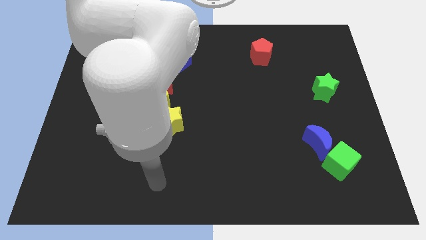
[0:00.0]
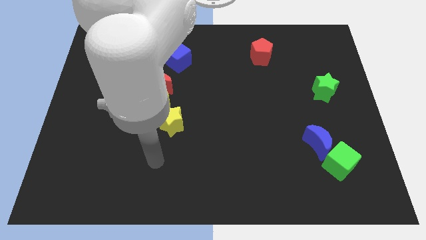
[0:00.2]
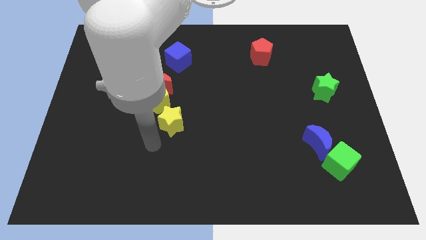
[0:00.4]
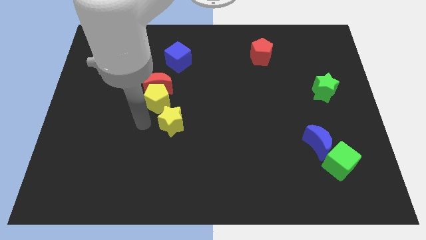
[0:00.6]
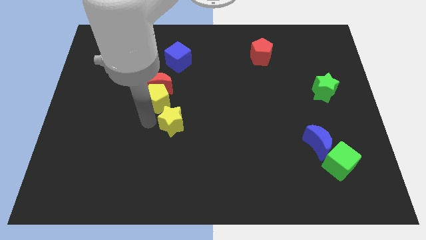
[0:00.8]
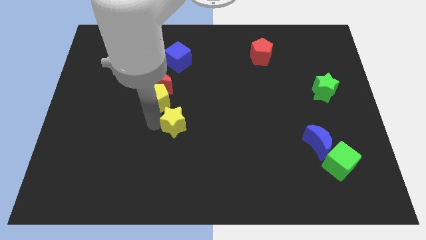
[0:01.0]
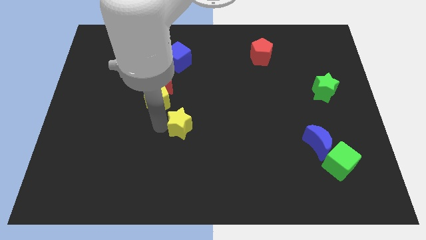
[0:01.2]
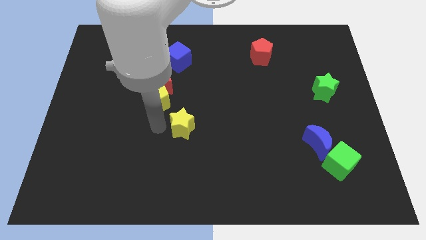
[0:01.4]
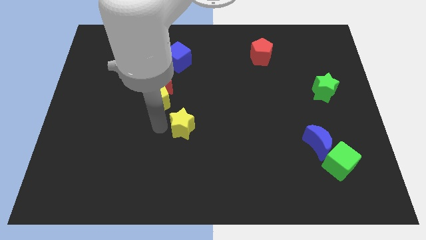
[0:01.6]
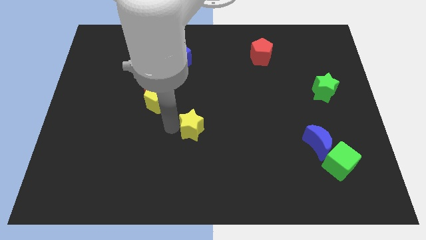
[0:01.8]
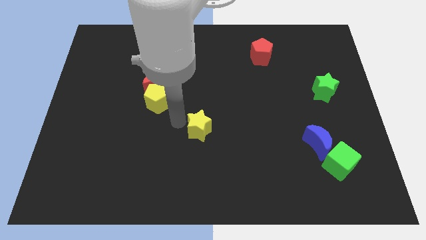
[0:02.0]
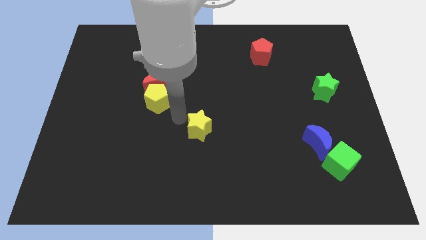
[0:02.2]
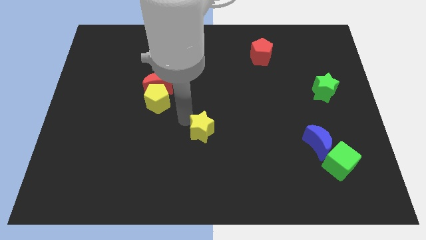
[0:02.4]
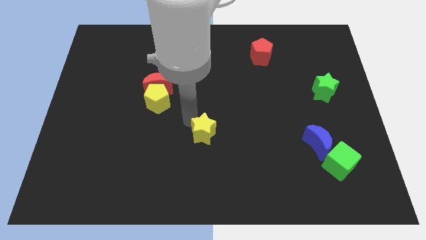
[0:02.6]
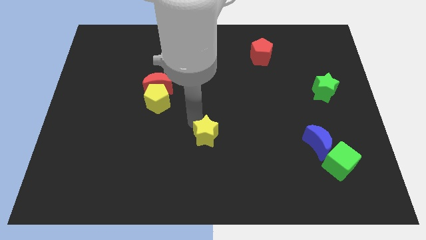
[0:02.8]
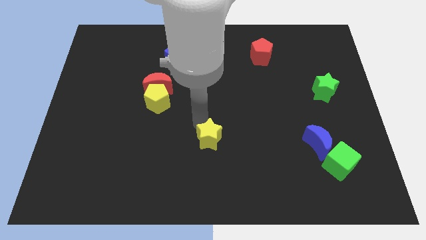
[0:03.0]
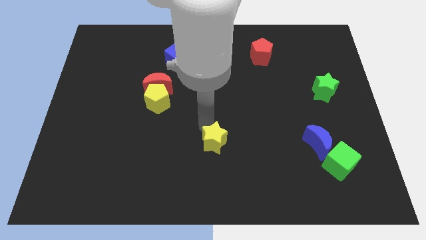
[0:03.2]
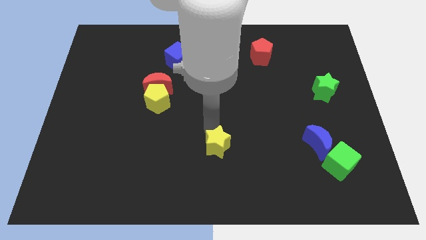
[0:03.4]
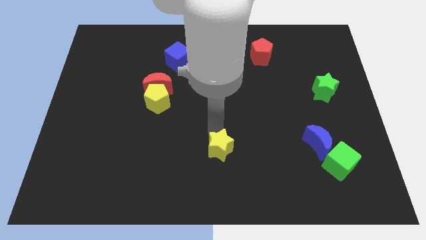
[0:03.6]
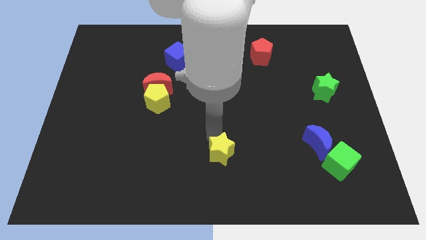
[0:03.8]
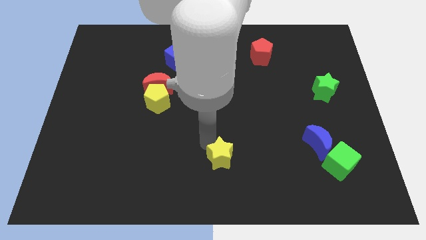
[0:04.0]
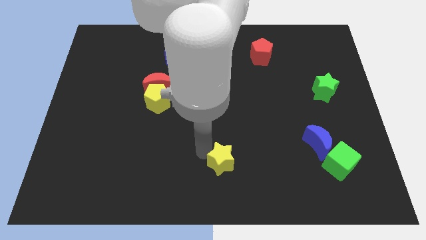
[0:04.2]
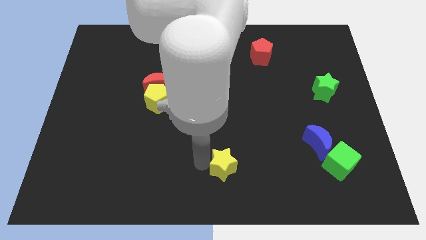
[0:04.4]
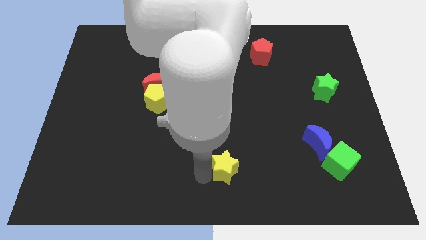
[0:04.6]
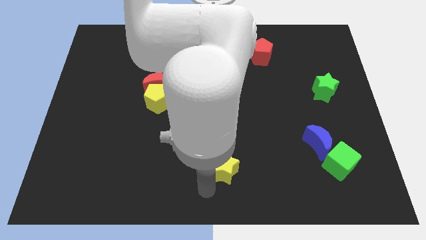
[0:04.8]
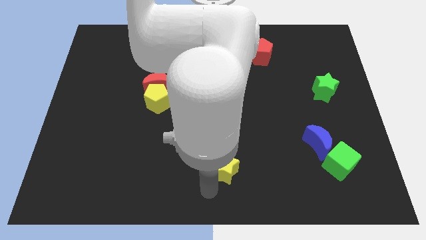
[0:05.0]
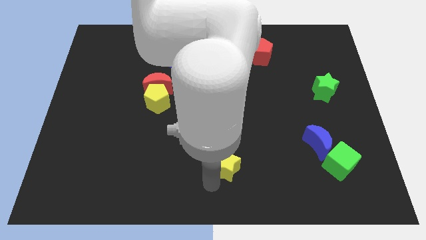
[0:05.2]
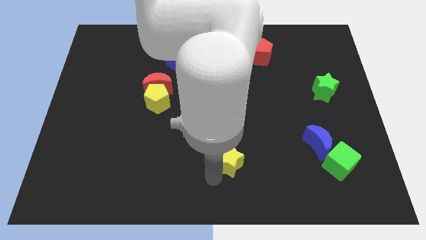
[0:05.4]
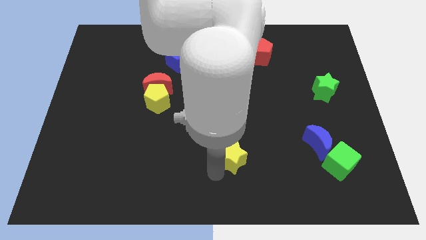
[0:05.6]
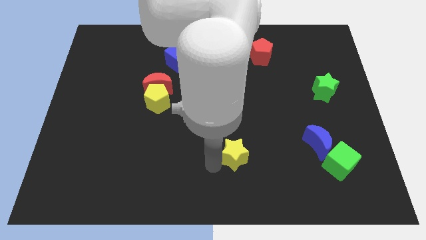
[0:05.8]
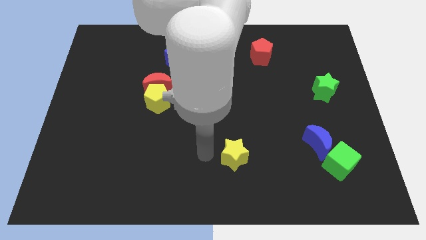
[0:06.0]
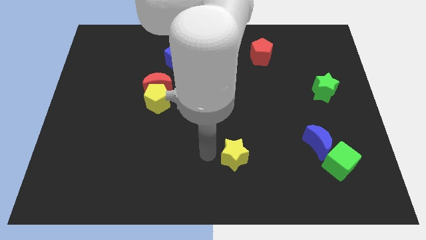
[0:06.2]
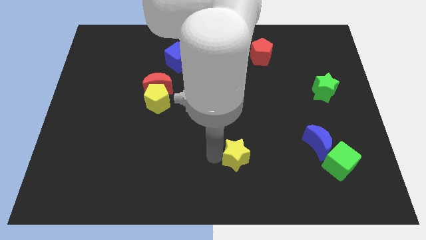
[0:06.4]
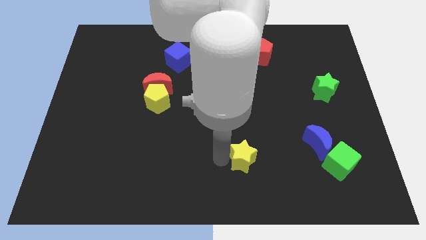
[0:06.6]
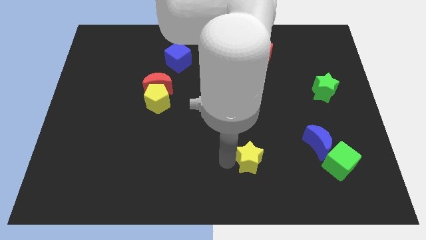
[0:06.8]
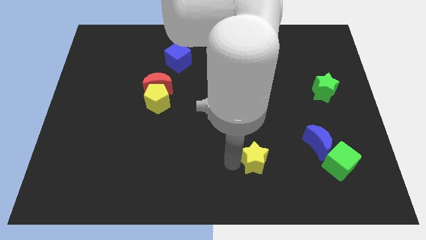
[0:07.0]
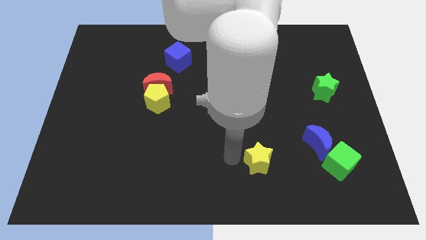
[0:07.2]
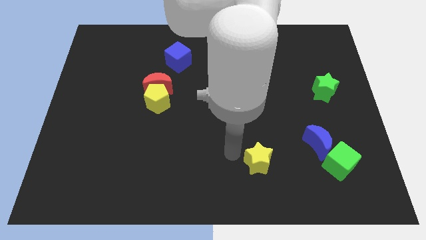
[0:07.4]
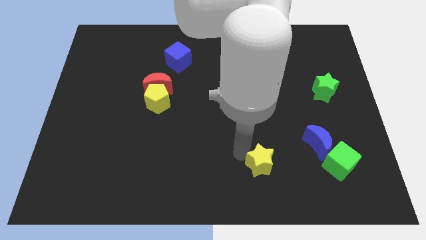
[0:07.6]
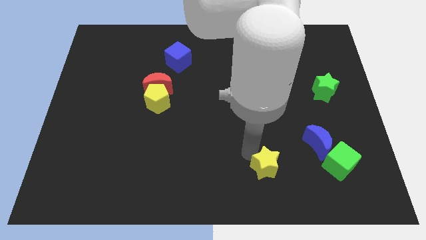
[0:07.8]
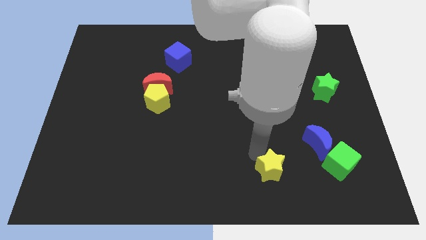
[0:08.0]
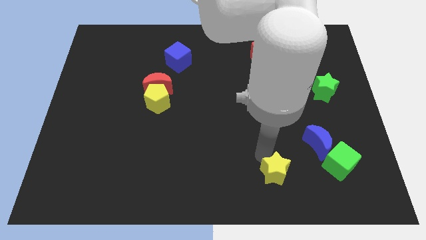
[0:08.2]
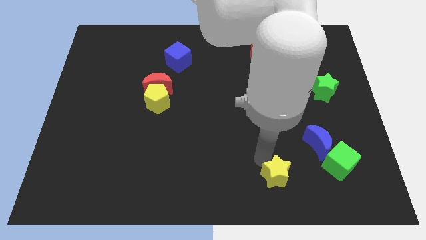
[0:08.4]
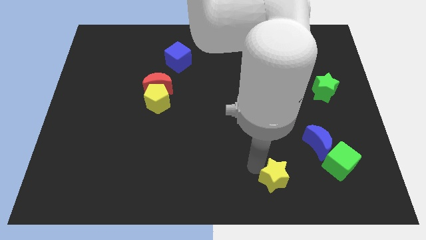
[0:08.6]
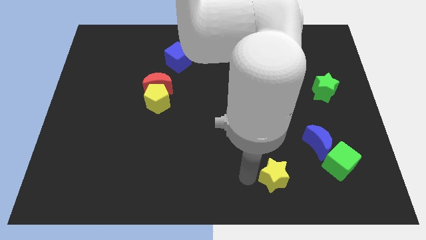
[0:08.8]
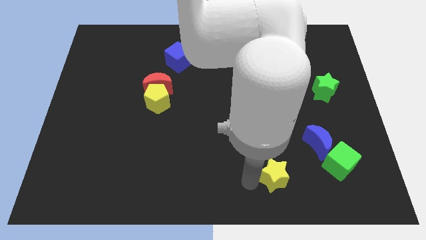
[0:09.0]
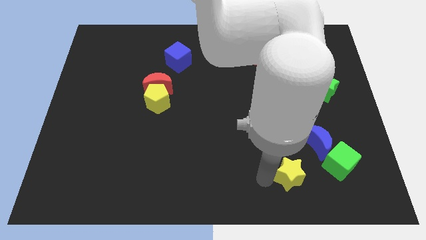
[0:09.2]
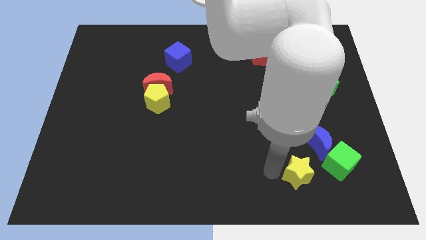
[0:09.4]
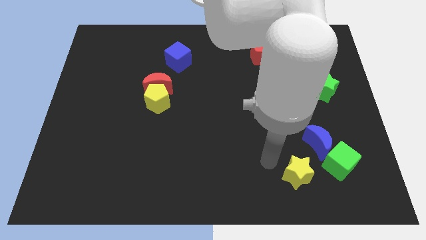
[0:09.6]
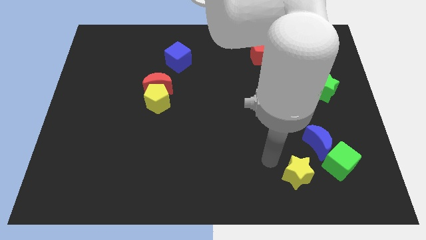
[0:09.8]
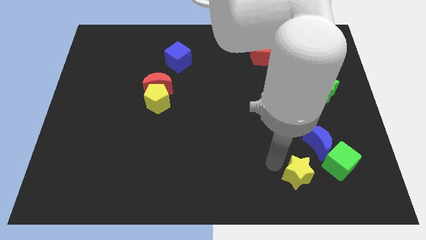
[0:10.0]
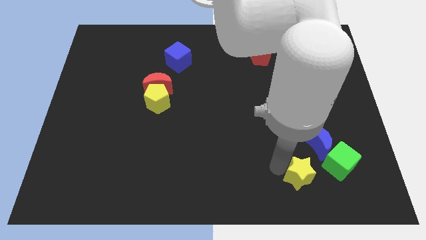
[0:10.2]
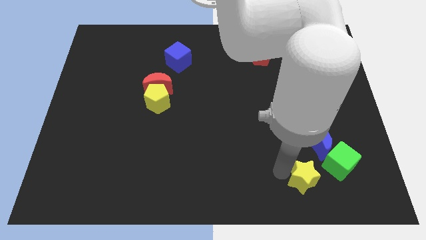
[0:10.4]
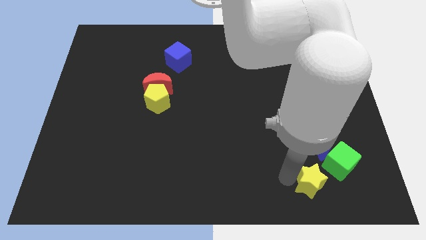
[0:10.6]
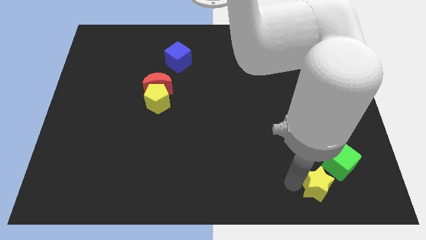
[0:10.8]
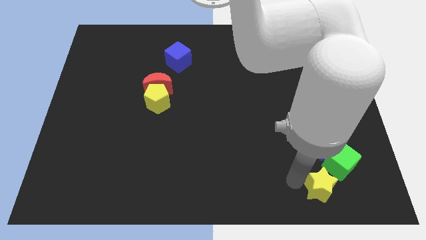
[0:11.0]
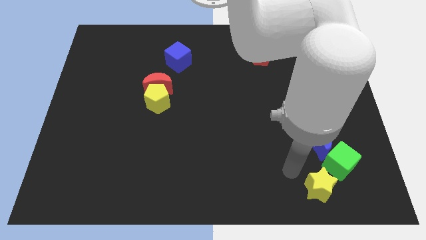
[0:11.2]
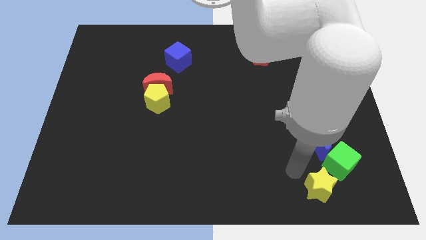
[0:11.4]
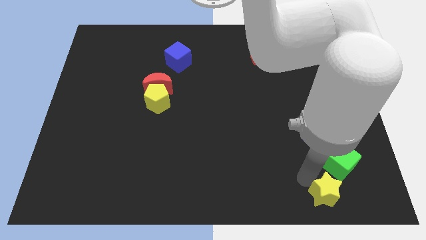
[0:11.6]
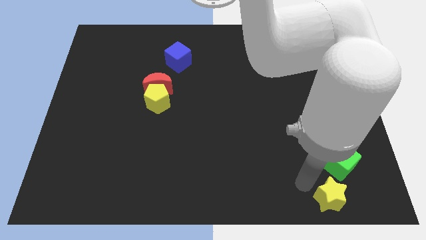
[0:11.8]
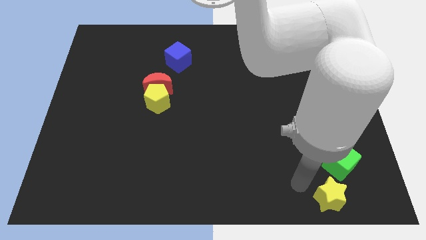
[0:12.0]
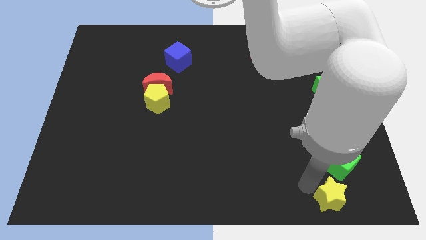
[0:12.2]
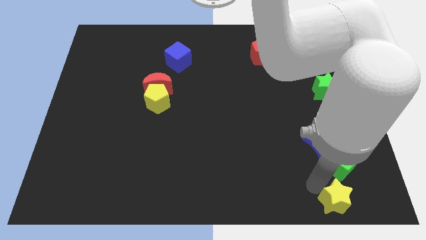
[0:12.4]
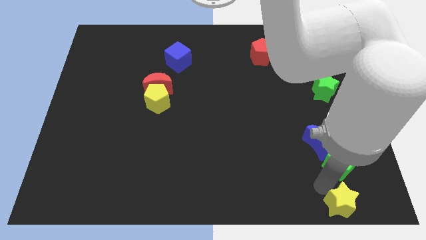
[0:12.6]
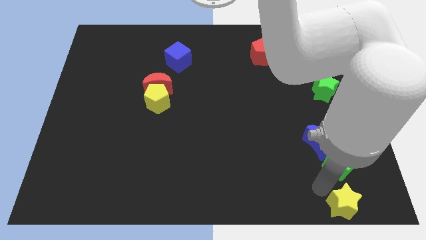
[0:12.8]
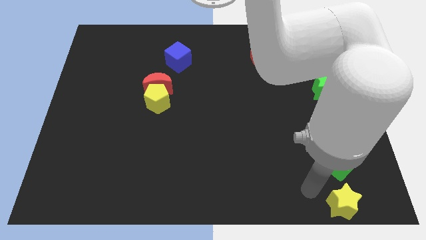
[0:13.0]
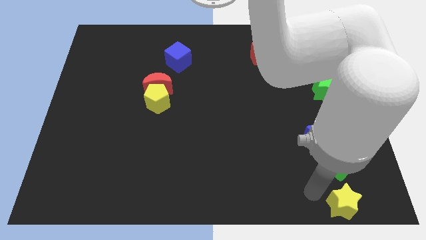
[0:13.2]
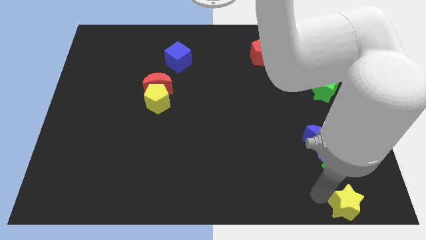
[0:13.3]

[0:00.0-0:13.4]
put the yellow star to the bottom right

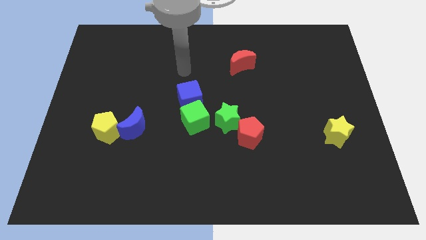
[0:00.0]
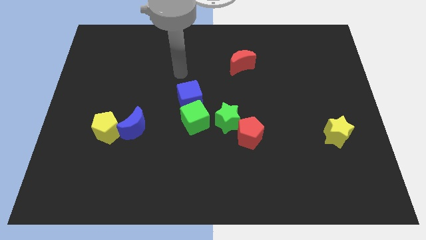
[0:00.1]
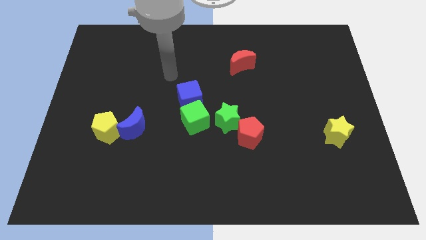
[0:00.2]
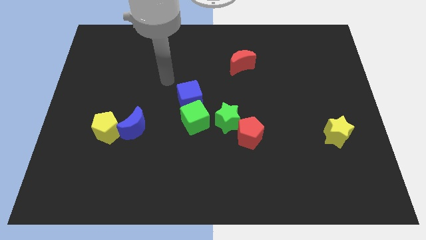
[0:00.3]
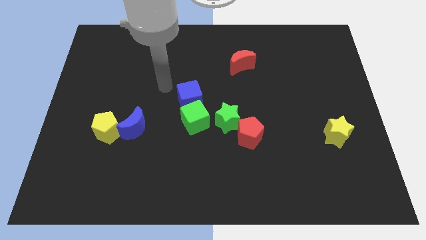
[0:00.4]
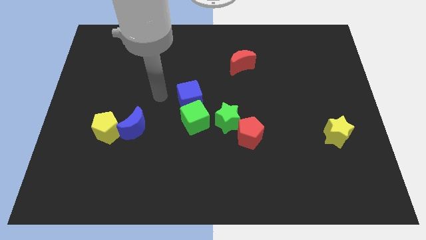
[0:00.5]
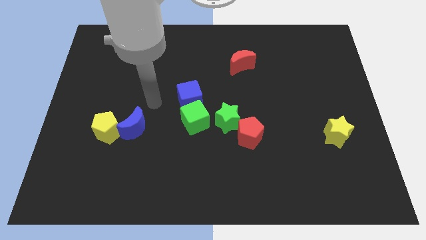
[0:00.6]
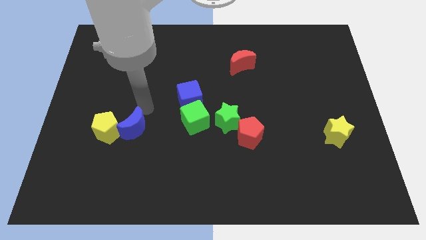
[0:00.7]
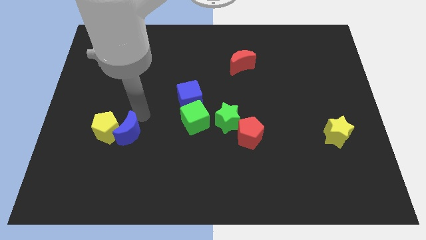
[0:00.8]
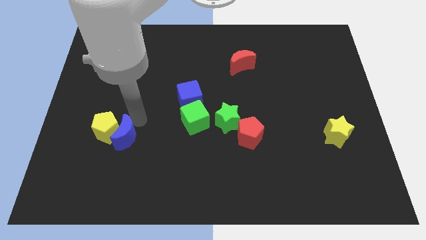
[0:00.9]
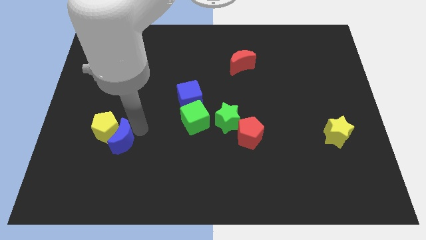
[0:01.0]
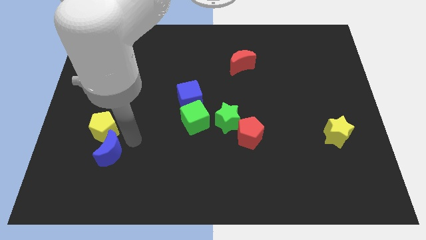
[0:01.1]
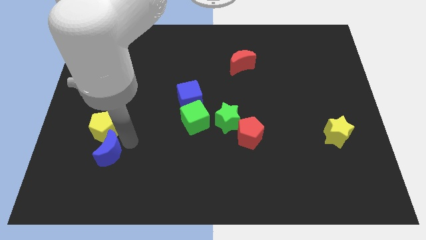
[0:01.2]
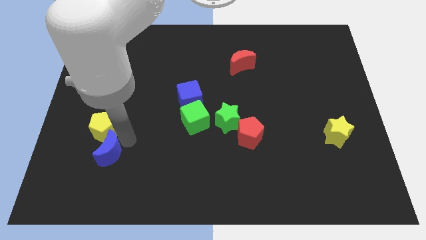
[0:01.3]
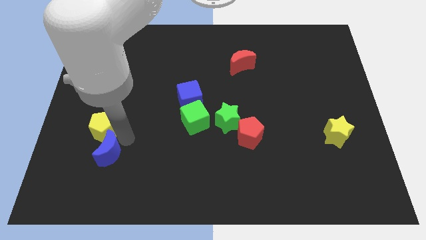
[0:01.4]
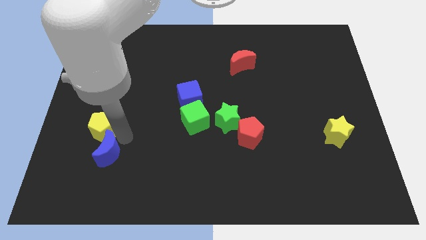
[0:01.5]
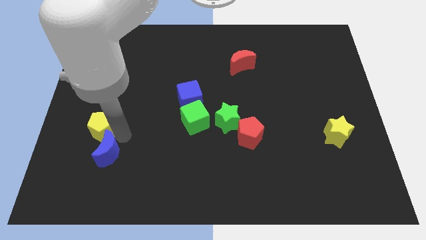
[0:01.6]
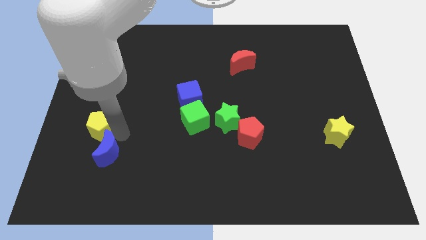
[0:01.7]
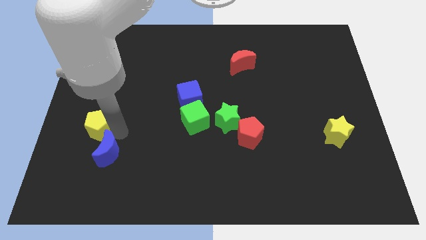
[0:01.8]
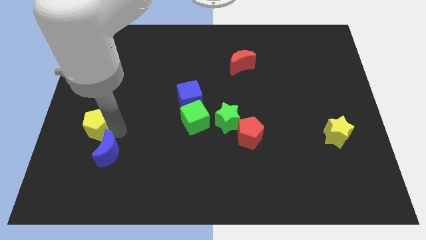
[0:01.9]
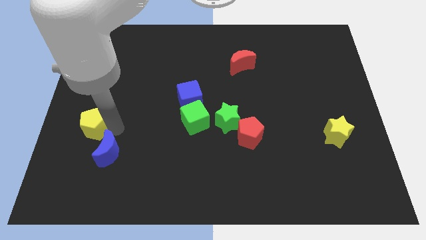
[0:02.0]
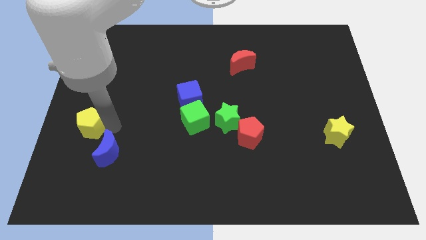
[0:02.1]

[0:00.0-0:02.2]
put the yellow pentagon to the left side of the board
